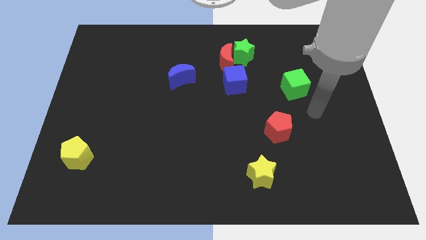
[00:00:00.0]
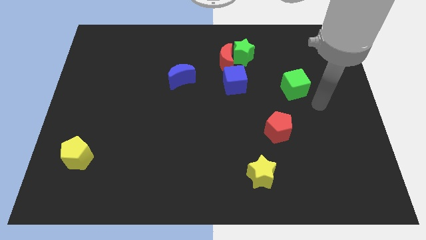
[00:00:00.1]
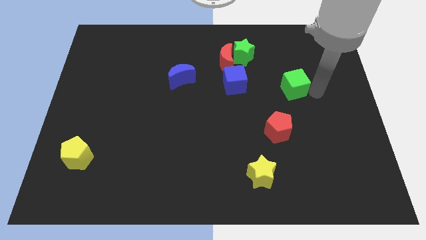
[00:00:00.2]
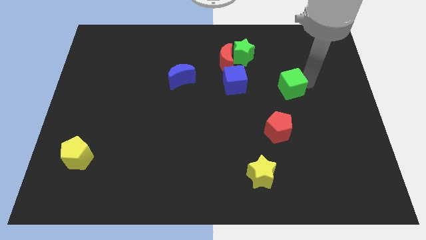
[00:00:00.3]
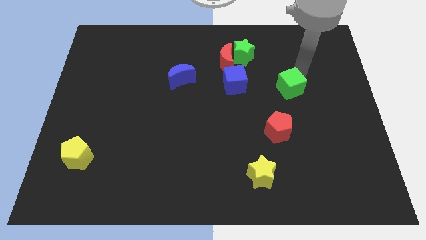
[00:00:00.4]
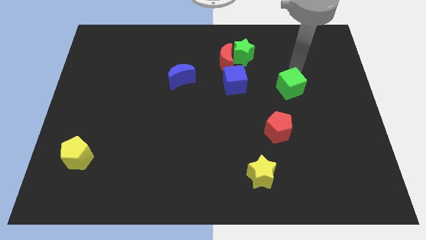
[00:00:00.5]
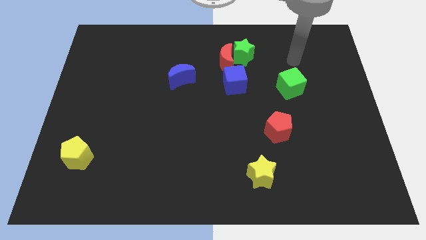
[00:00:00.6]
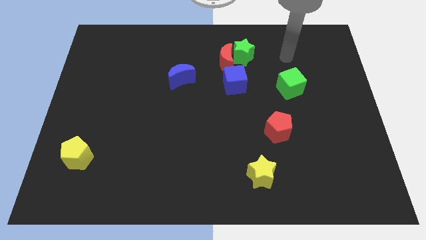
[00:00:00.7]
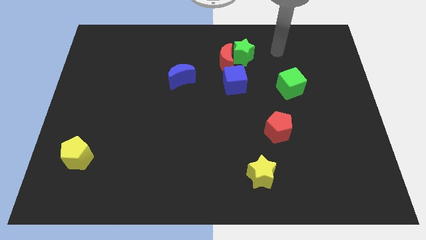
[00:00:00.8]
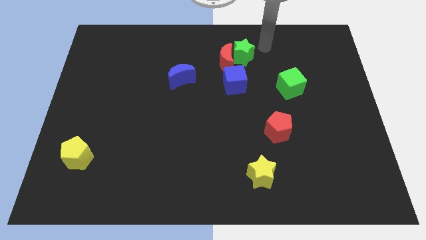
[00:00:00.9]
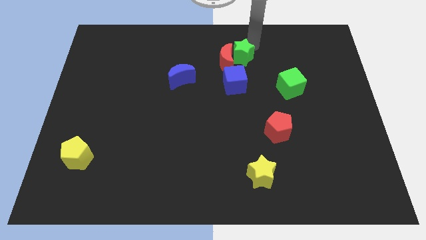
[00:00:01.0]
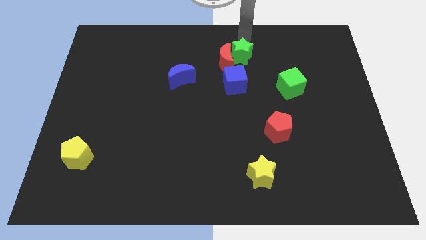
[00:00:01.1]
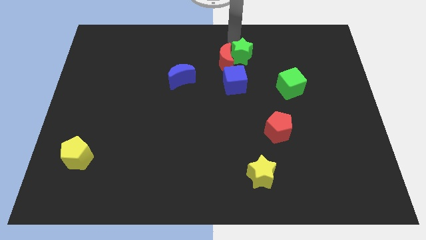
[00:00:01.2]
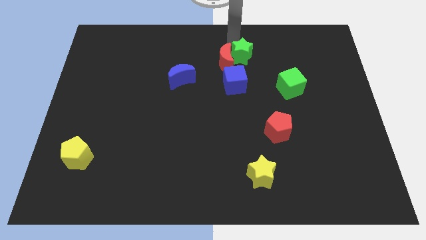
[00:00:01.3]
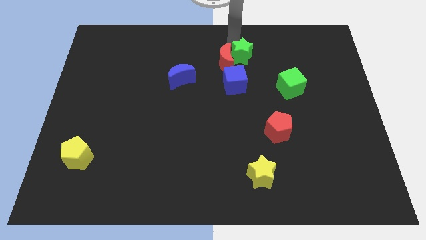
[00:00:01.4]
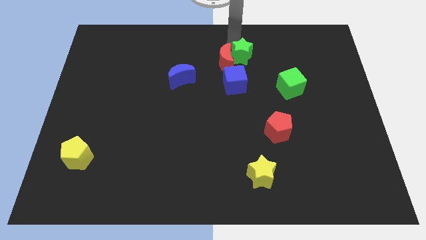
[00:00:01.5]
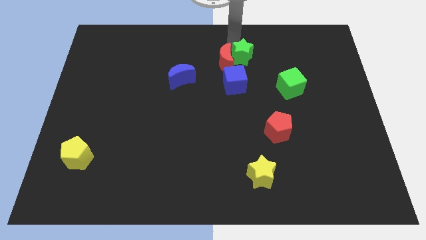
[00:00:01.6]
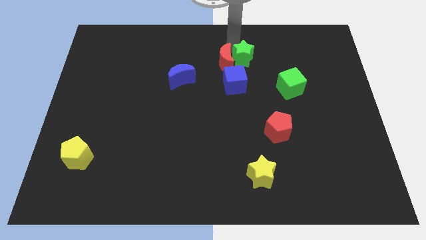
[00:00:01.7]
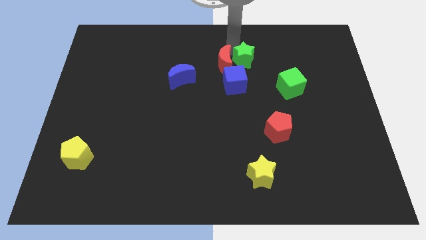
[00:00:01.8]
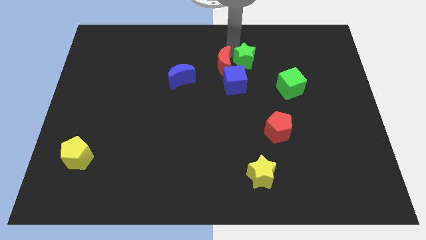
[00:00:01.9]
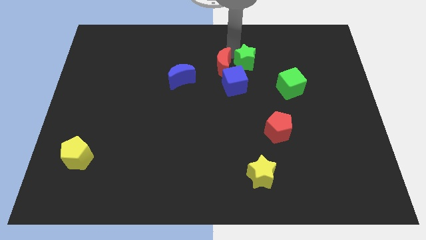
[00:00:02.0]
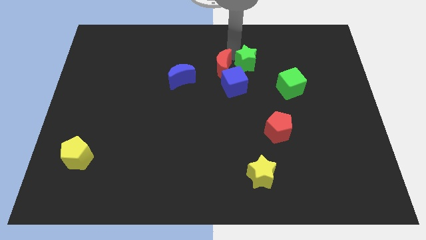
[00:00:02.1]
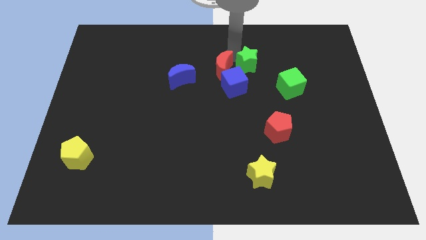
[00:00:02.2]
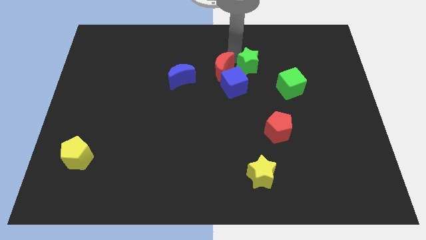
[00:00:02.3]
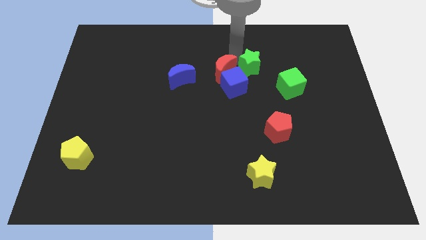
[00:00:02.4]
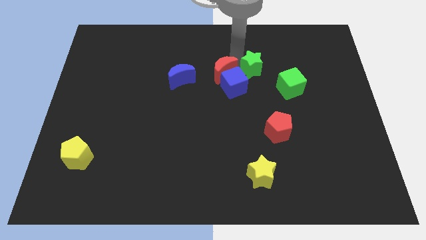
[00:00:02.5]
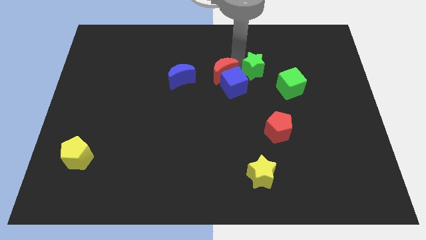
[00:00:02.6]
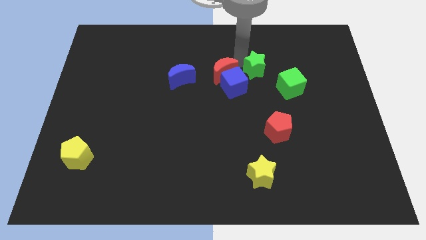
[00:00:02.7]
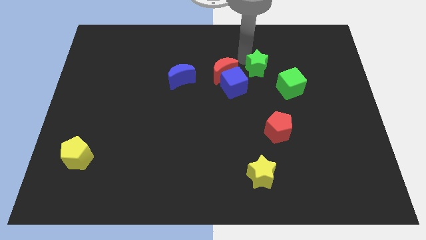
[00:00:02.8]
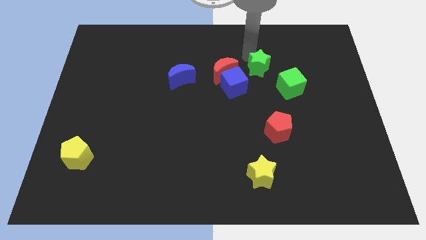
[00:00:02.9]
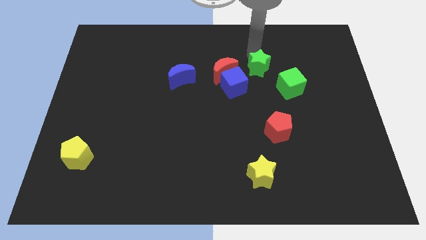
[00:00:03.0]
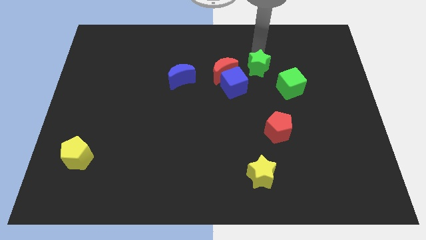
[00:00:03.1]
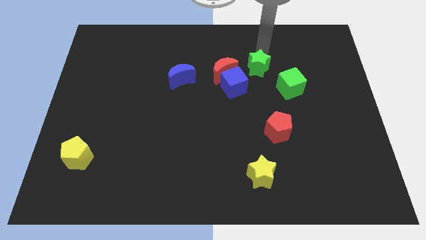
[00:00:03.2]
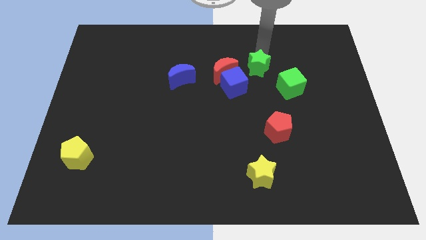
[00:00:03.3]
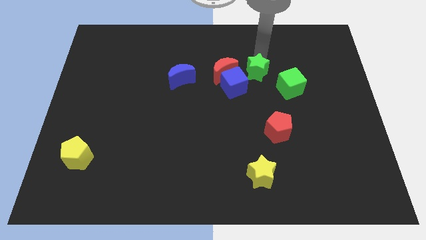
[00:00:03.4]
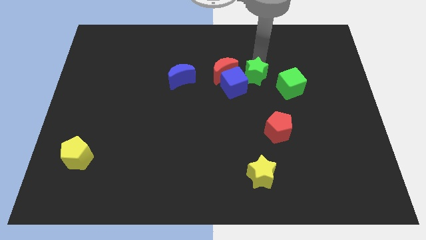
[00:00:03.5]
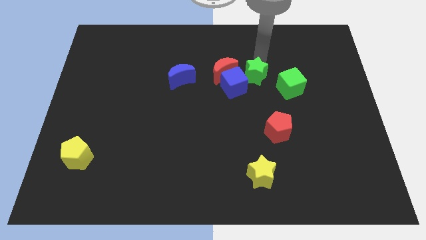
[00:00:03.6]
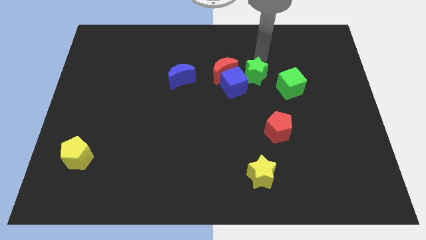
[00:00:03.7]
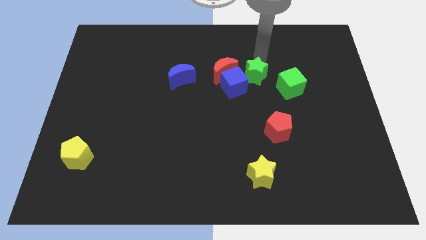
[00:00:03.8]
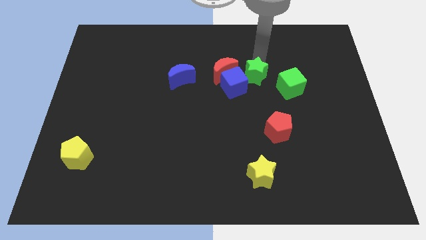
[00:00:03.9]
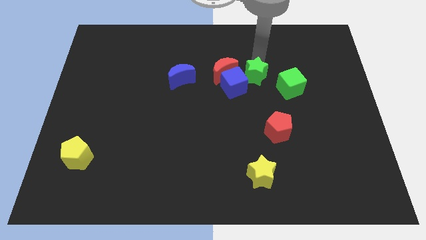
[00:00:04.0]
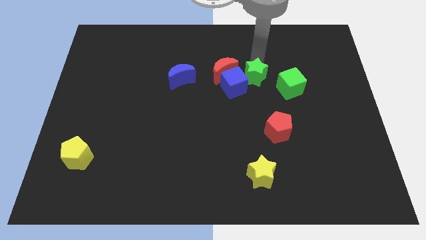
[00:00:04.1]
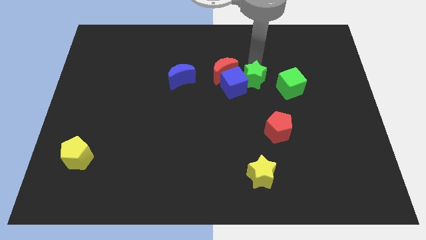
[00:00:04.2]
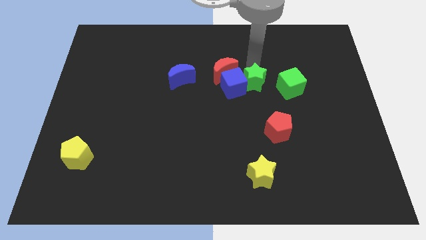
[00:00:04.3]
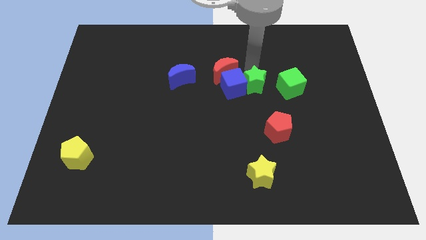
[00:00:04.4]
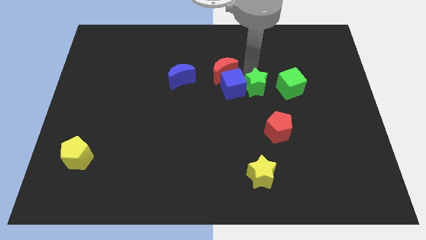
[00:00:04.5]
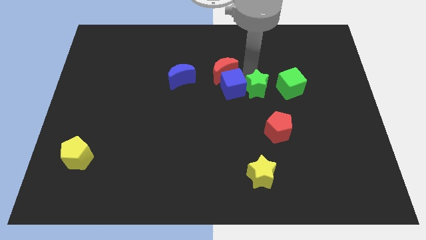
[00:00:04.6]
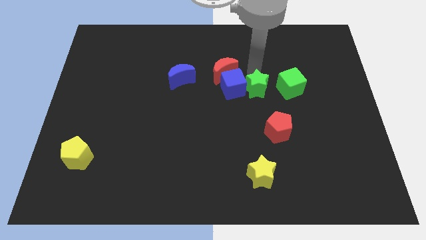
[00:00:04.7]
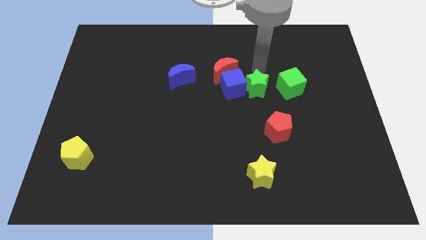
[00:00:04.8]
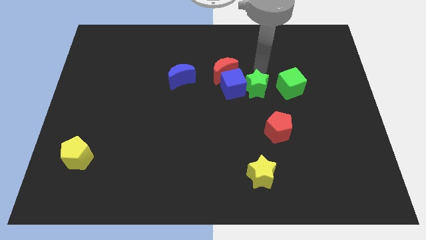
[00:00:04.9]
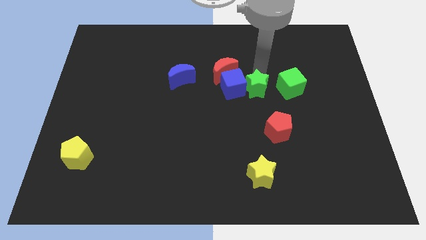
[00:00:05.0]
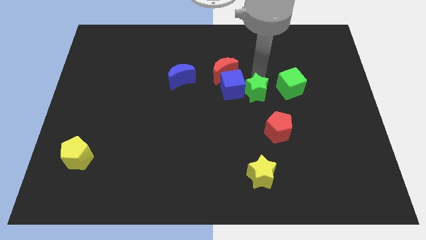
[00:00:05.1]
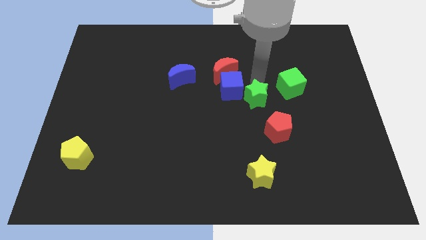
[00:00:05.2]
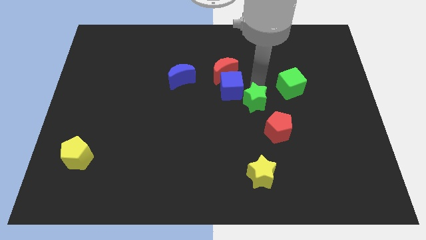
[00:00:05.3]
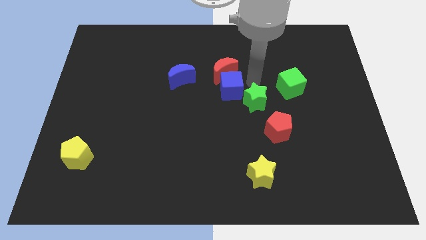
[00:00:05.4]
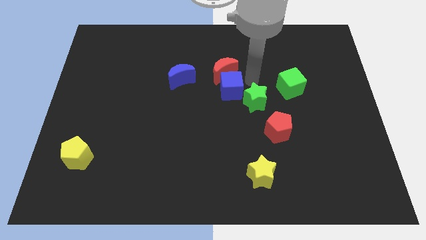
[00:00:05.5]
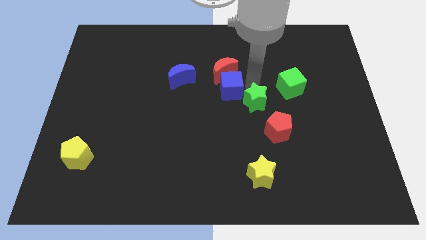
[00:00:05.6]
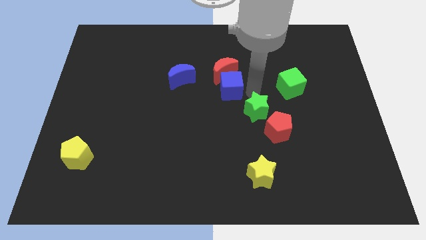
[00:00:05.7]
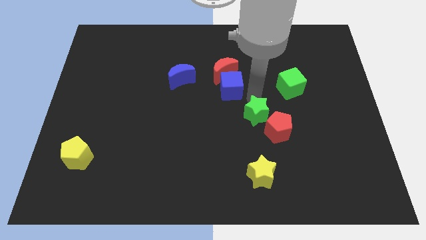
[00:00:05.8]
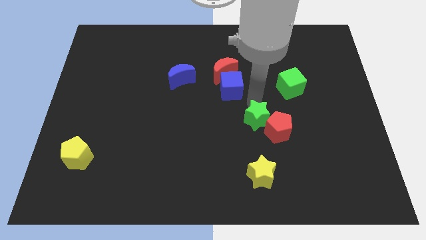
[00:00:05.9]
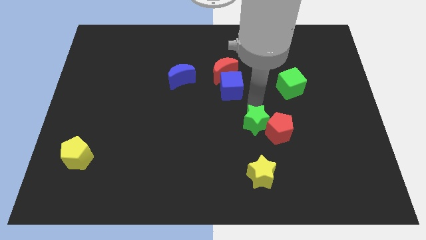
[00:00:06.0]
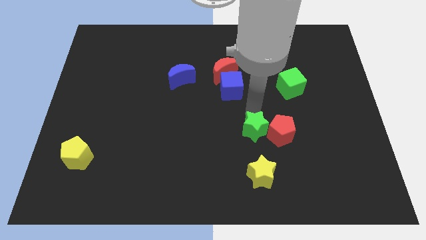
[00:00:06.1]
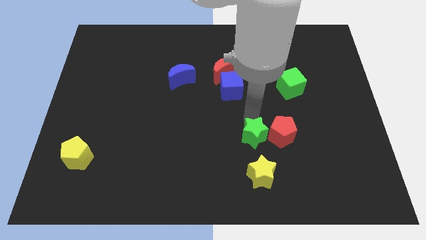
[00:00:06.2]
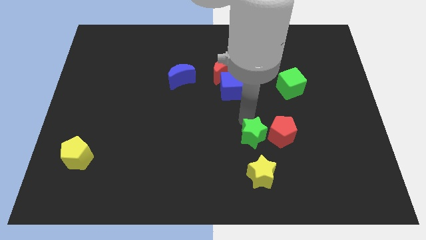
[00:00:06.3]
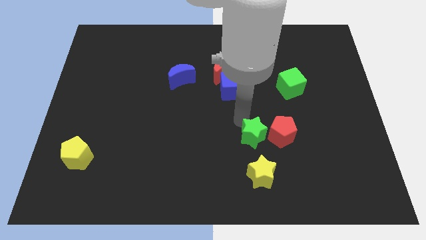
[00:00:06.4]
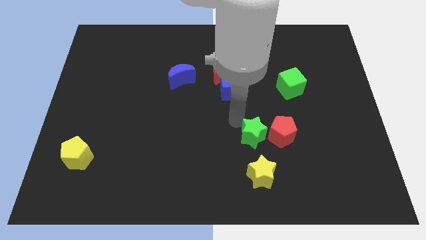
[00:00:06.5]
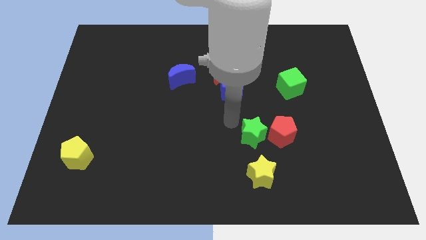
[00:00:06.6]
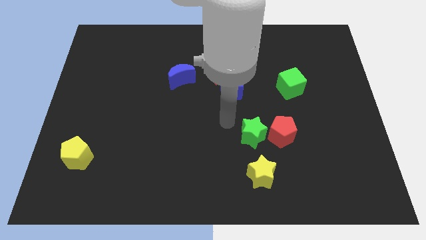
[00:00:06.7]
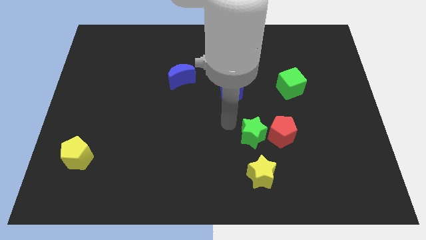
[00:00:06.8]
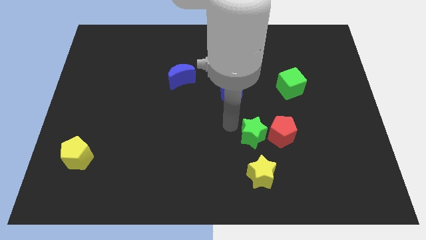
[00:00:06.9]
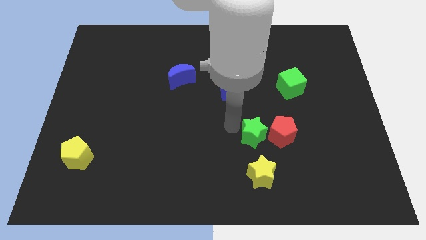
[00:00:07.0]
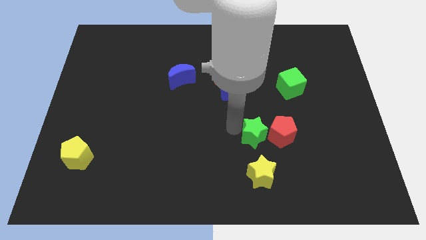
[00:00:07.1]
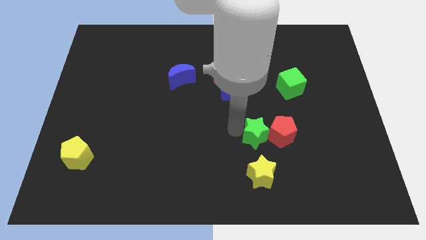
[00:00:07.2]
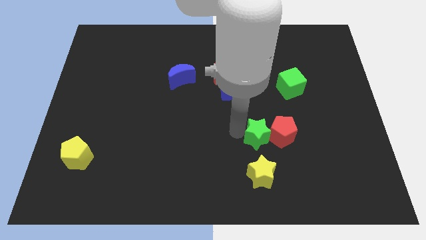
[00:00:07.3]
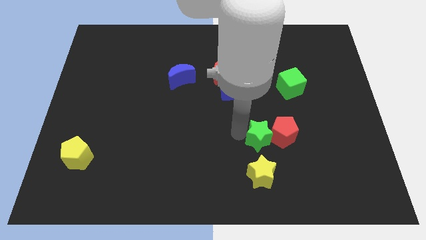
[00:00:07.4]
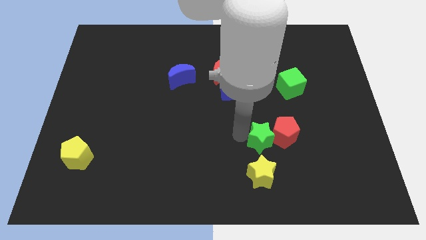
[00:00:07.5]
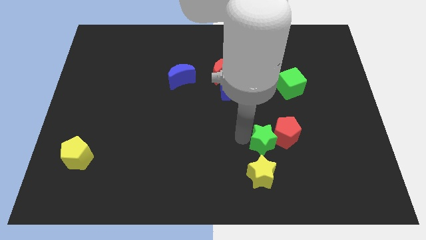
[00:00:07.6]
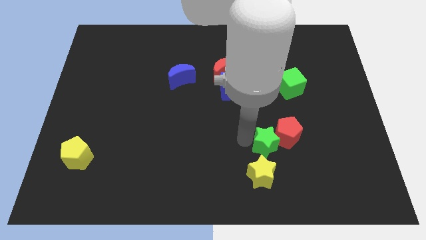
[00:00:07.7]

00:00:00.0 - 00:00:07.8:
slide the green star to the top right of the yellow star

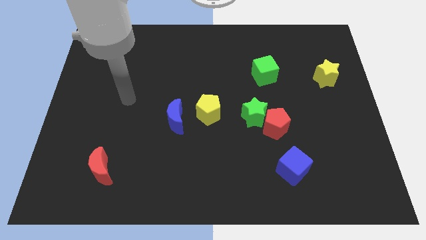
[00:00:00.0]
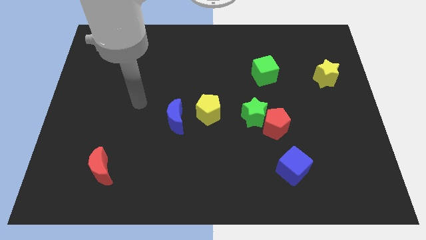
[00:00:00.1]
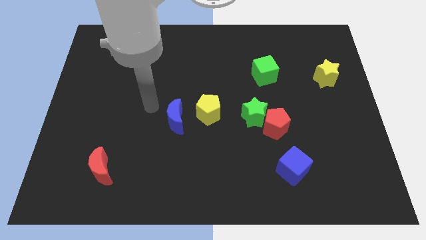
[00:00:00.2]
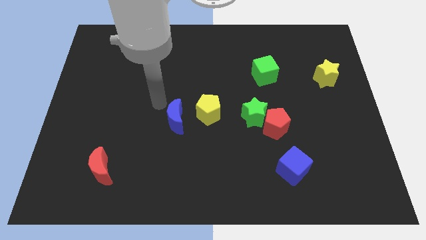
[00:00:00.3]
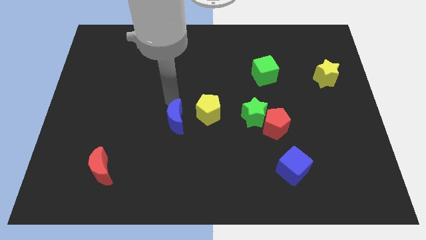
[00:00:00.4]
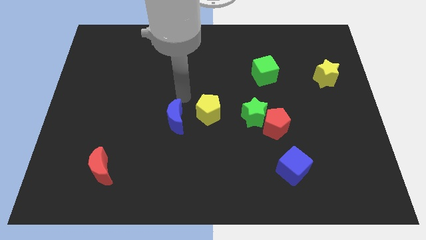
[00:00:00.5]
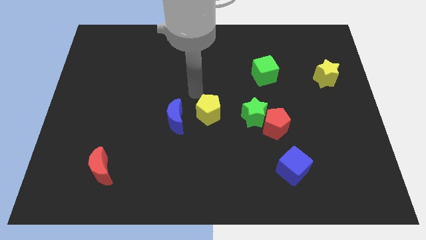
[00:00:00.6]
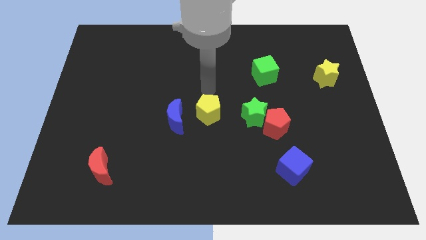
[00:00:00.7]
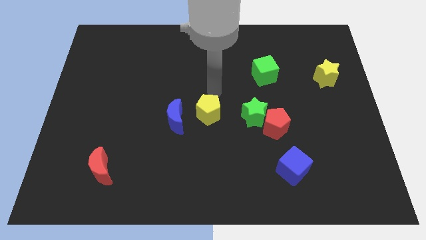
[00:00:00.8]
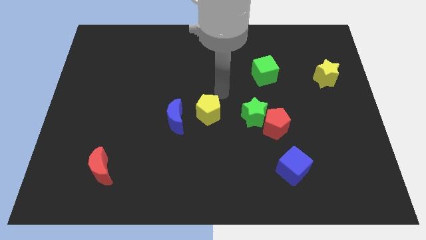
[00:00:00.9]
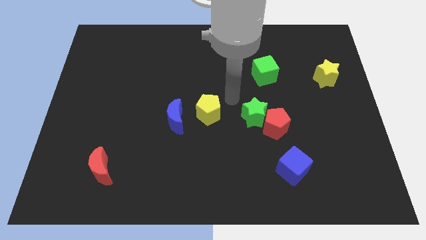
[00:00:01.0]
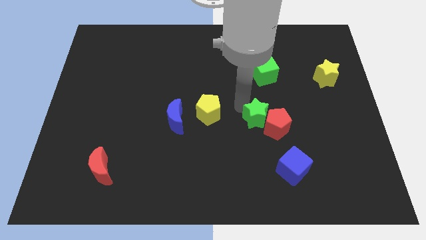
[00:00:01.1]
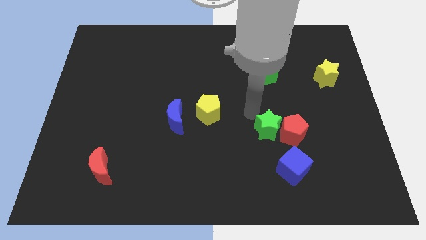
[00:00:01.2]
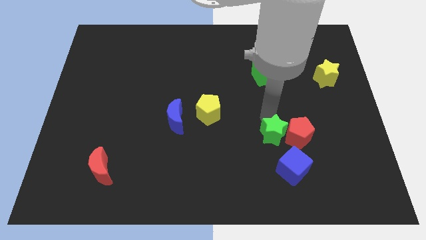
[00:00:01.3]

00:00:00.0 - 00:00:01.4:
push the red pentagon diagonally up and to the right of the blue cube
